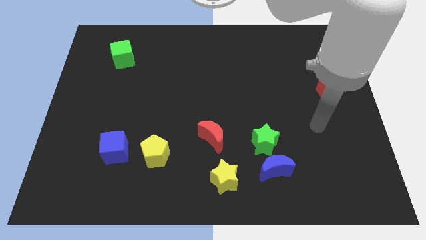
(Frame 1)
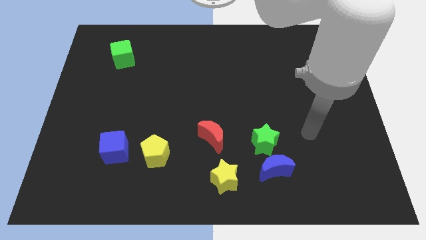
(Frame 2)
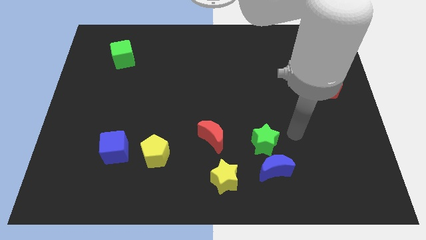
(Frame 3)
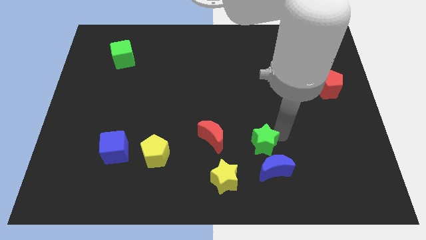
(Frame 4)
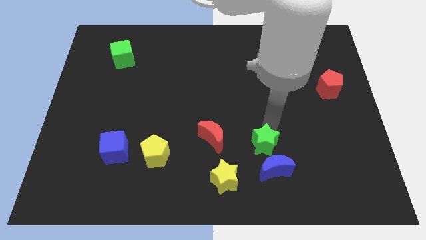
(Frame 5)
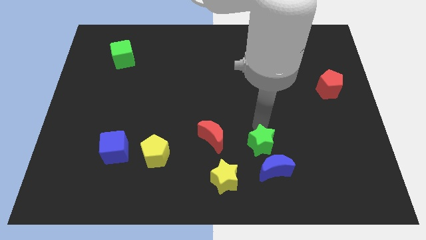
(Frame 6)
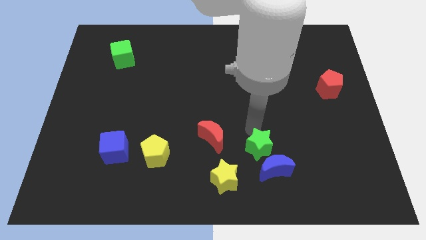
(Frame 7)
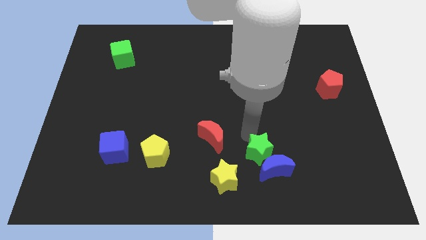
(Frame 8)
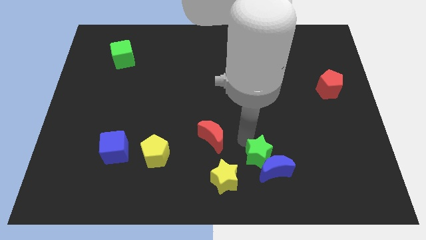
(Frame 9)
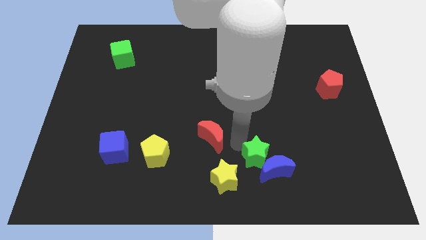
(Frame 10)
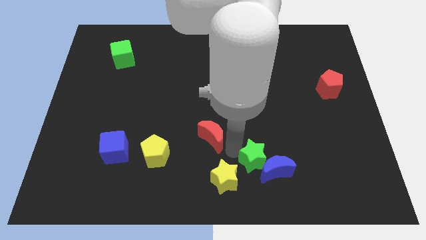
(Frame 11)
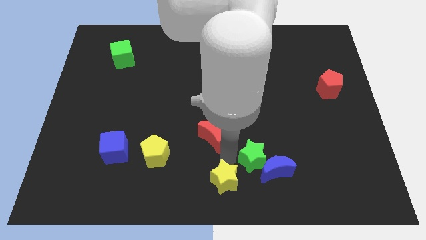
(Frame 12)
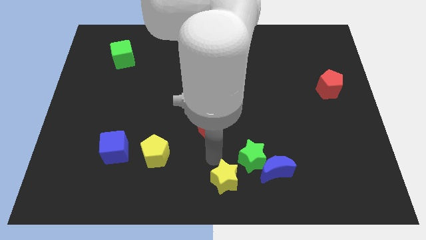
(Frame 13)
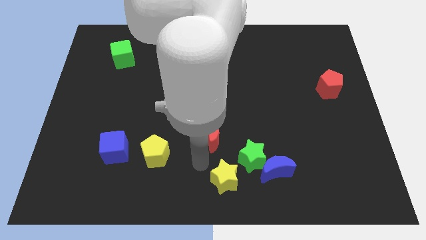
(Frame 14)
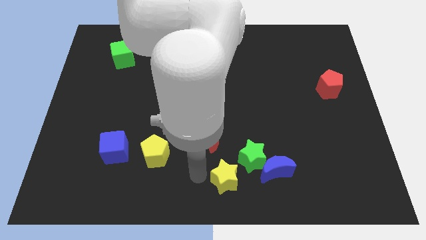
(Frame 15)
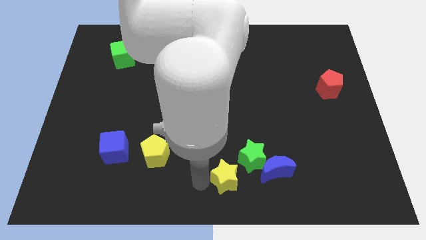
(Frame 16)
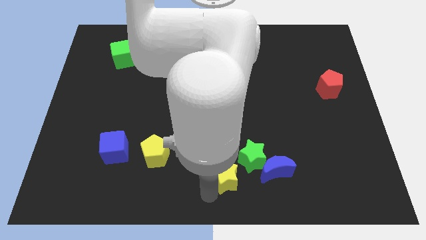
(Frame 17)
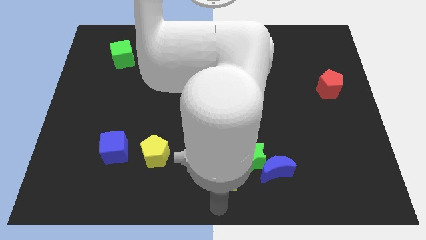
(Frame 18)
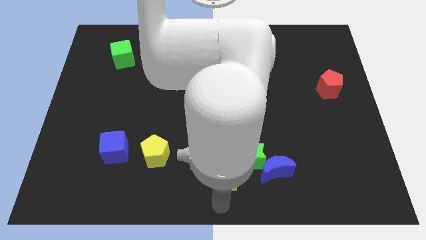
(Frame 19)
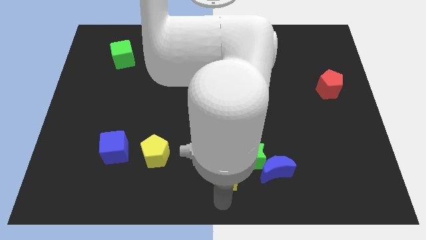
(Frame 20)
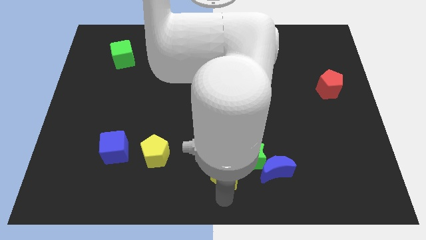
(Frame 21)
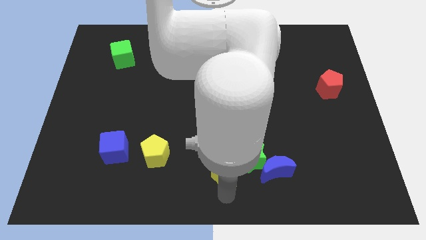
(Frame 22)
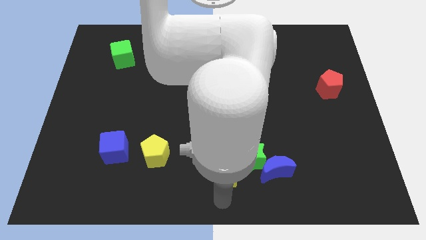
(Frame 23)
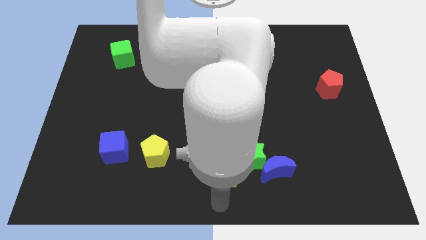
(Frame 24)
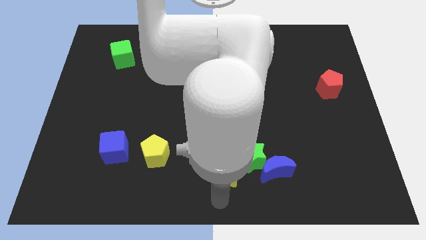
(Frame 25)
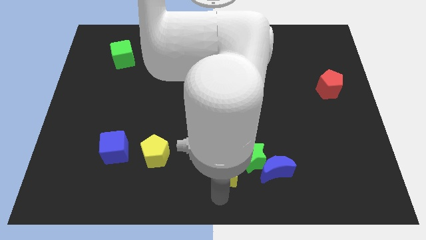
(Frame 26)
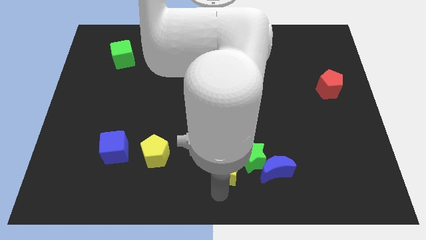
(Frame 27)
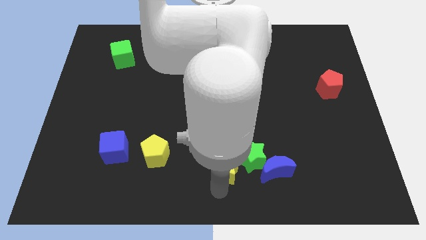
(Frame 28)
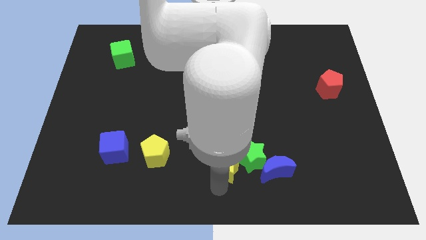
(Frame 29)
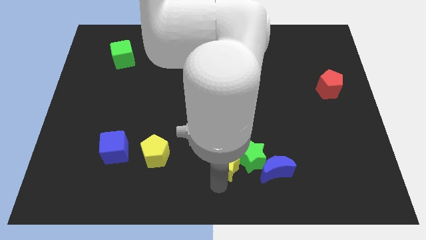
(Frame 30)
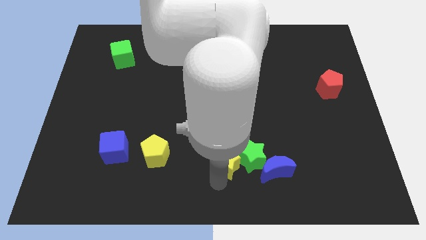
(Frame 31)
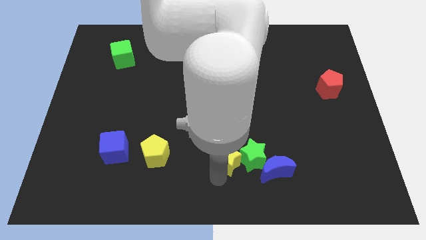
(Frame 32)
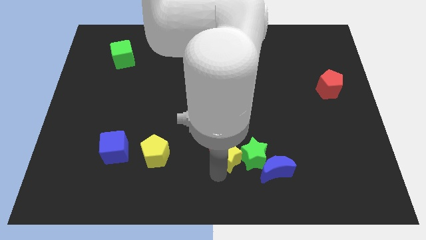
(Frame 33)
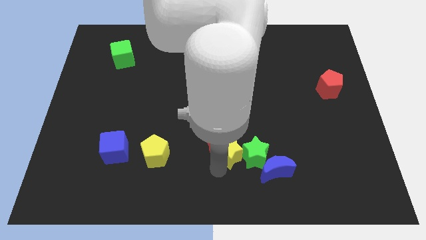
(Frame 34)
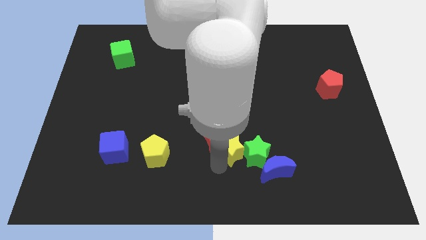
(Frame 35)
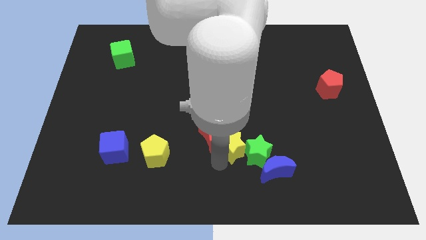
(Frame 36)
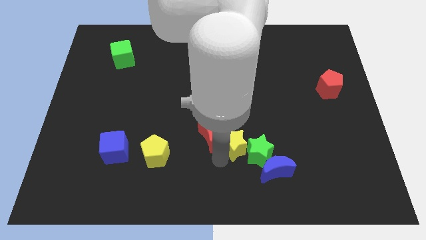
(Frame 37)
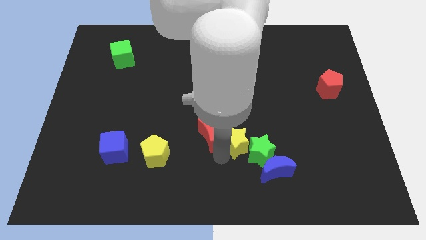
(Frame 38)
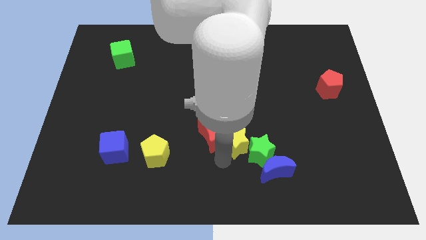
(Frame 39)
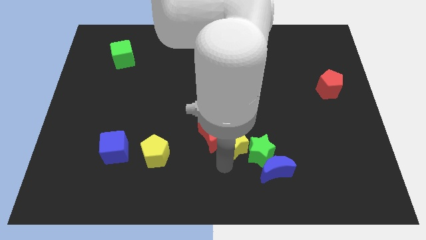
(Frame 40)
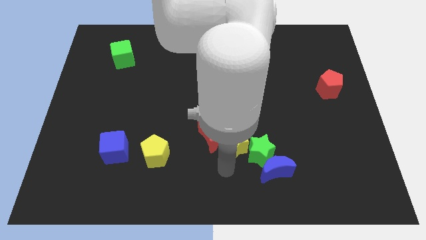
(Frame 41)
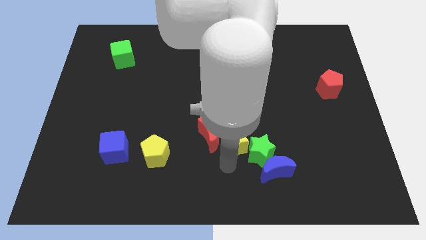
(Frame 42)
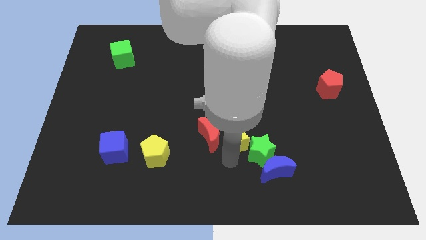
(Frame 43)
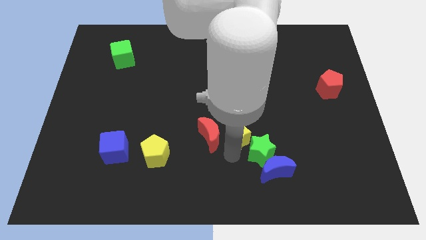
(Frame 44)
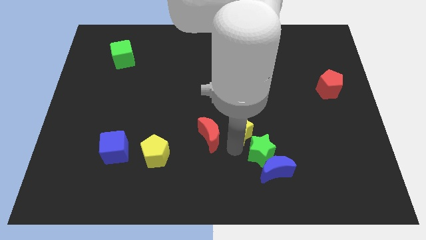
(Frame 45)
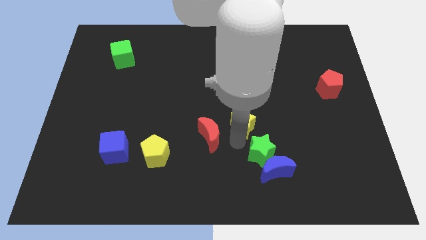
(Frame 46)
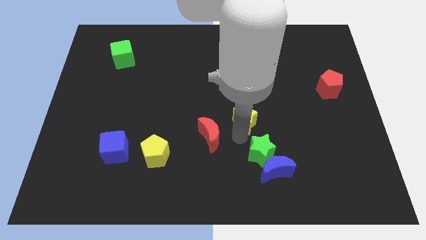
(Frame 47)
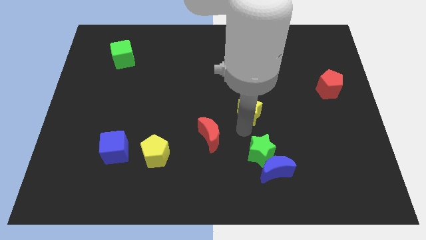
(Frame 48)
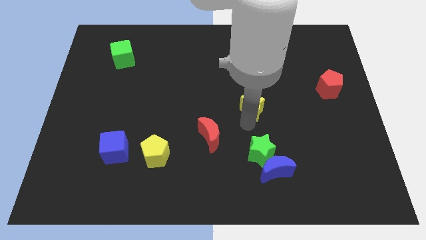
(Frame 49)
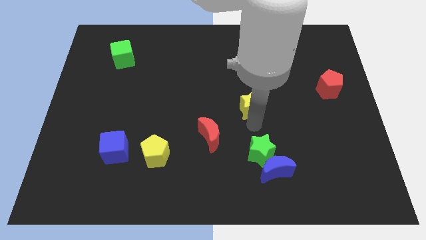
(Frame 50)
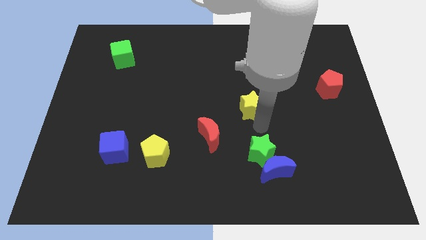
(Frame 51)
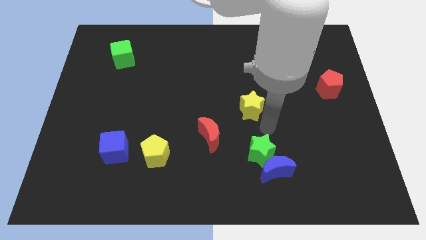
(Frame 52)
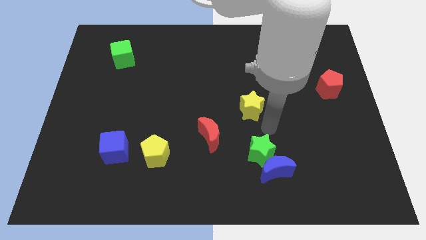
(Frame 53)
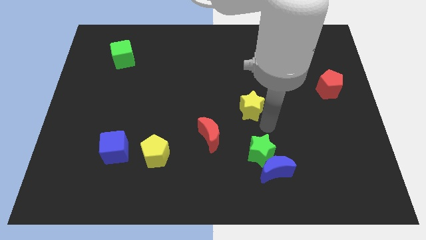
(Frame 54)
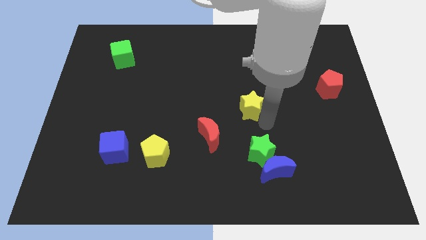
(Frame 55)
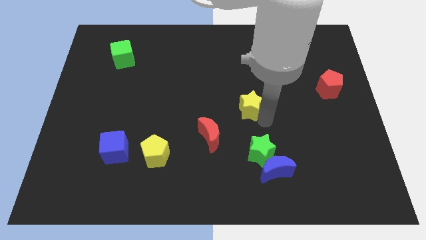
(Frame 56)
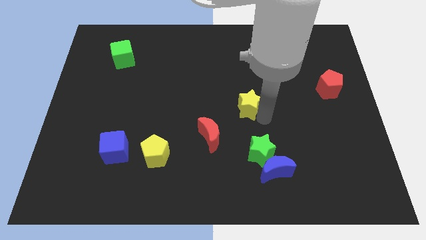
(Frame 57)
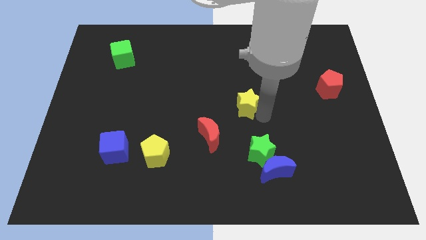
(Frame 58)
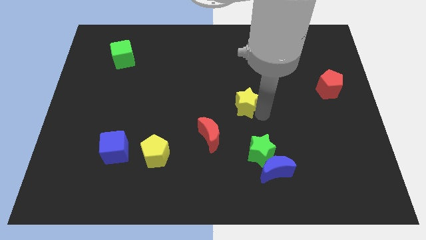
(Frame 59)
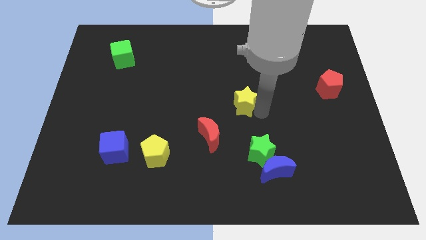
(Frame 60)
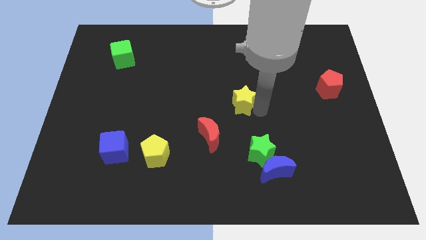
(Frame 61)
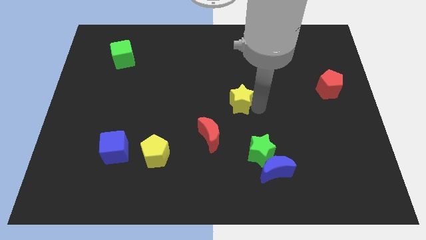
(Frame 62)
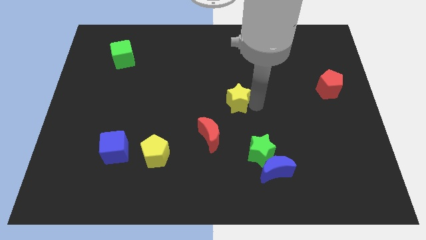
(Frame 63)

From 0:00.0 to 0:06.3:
move the yellow star up

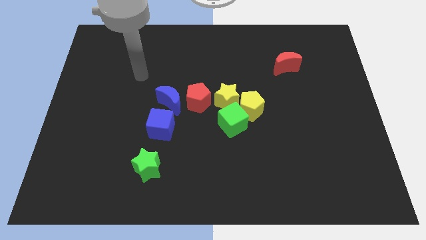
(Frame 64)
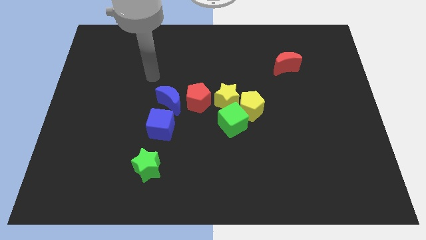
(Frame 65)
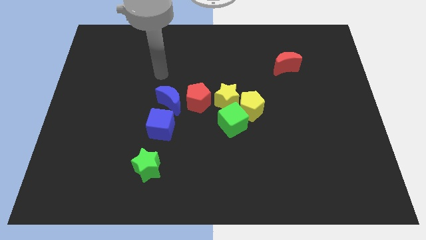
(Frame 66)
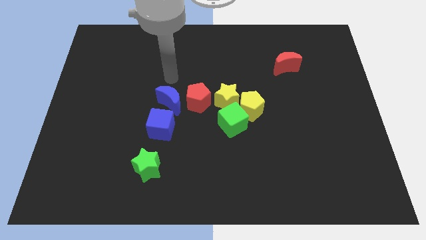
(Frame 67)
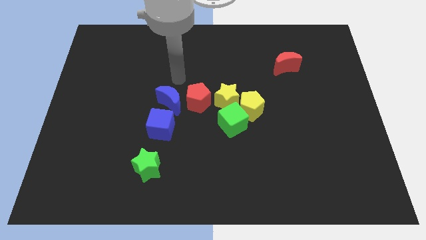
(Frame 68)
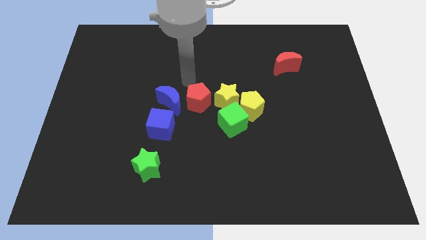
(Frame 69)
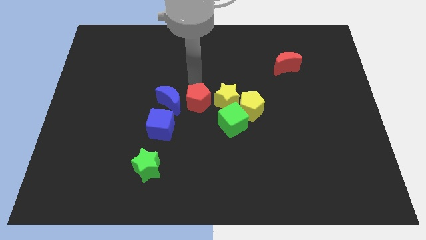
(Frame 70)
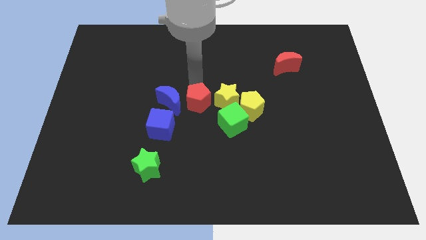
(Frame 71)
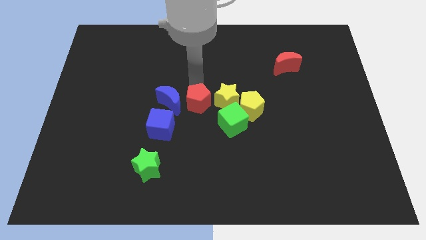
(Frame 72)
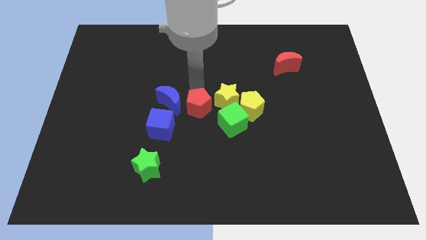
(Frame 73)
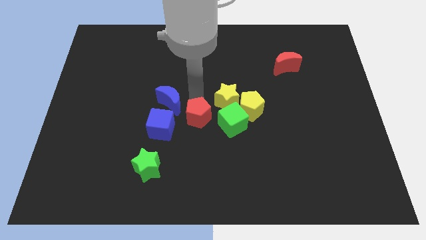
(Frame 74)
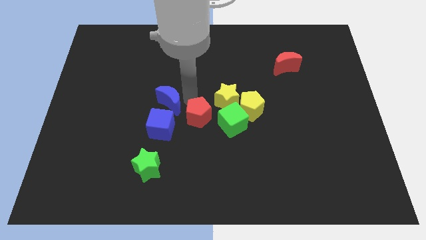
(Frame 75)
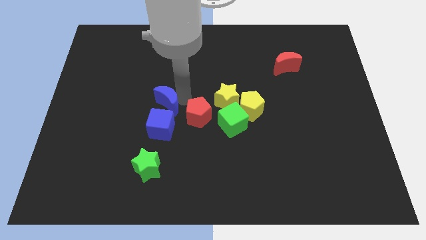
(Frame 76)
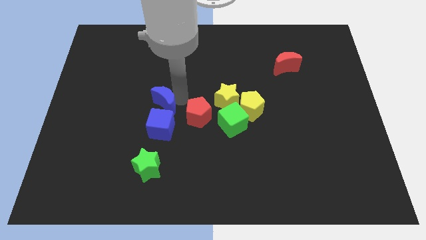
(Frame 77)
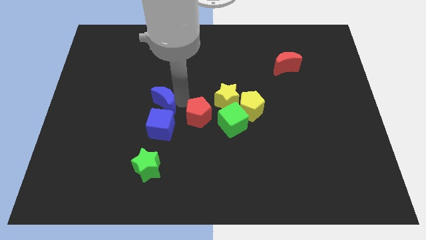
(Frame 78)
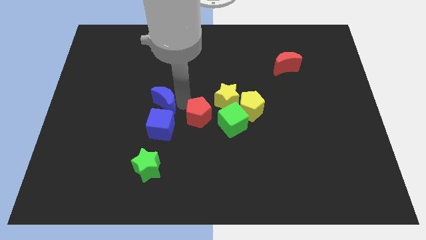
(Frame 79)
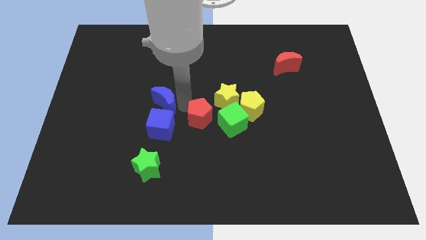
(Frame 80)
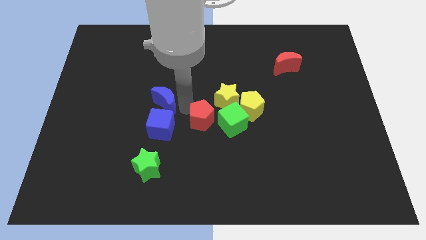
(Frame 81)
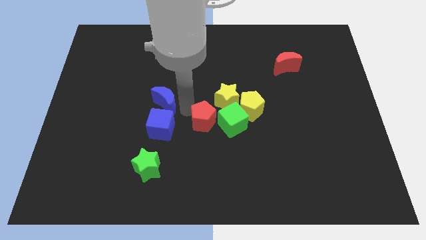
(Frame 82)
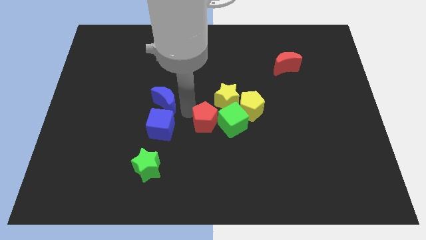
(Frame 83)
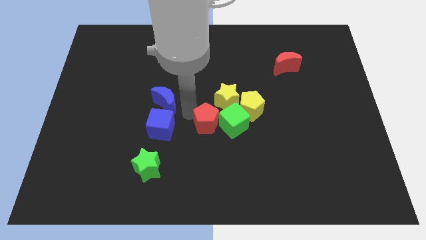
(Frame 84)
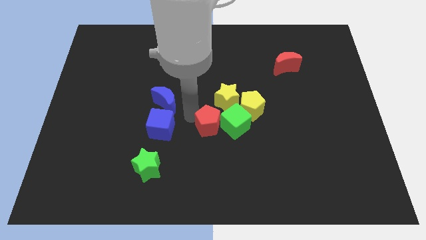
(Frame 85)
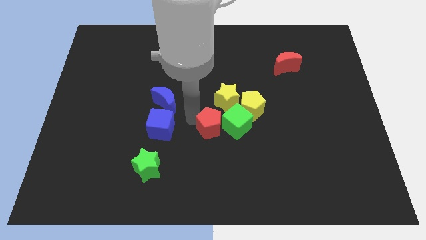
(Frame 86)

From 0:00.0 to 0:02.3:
slightly move the red pentagon down and right
